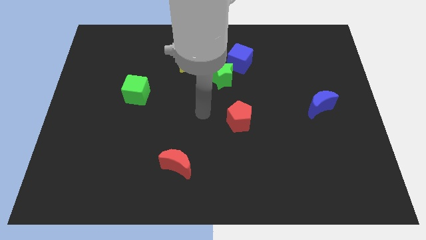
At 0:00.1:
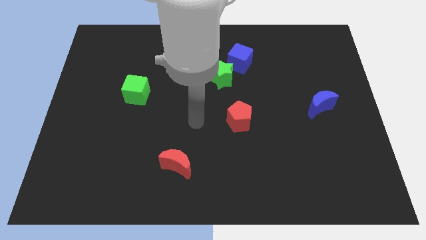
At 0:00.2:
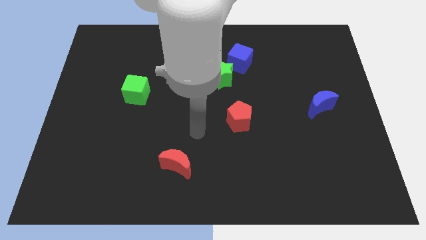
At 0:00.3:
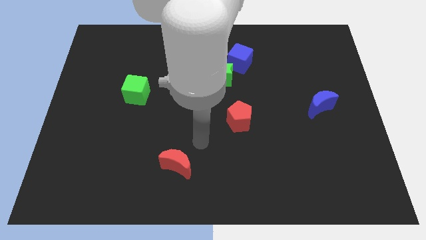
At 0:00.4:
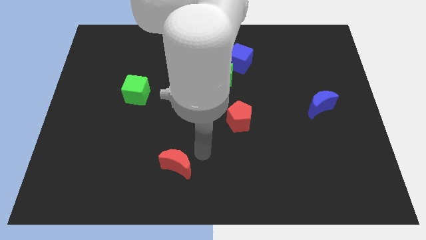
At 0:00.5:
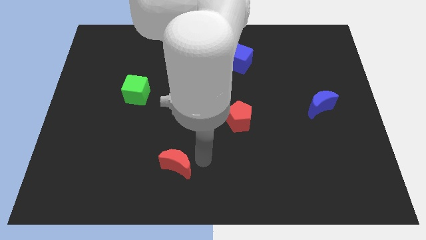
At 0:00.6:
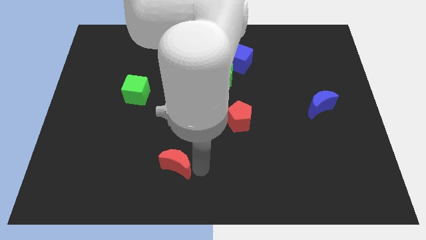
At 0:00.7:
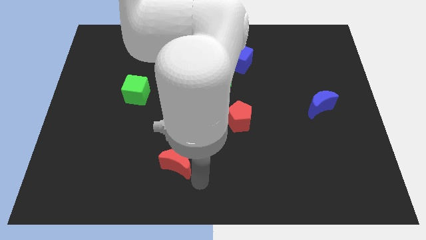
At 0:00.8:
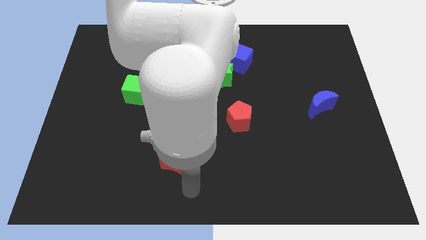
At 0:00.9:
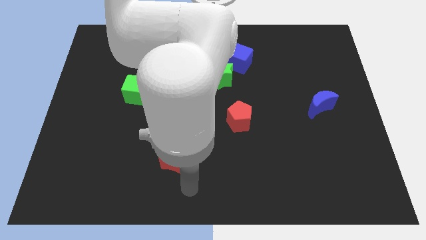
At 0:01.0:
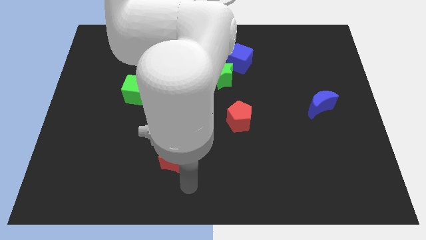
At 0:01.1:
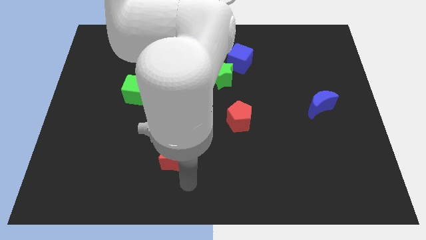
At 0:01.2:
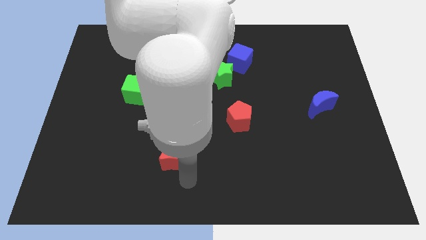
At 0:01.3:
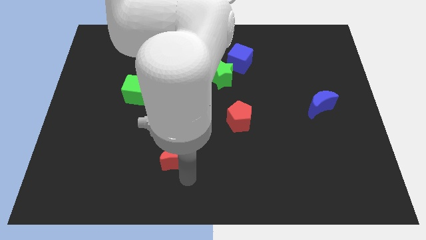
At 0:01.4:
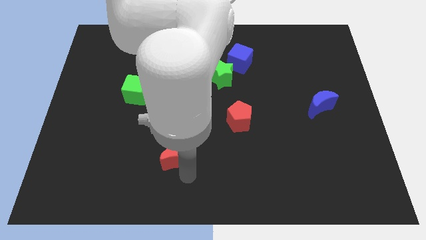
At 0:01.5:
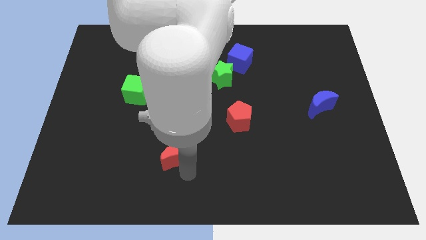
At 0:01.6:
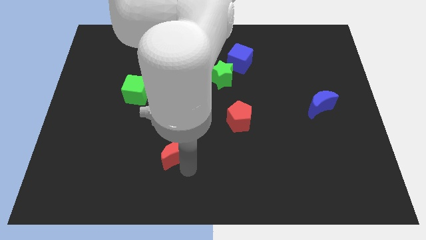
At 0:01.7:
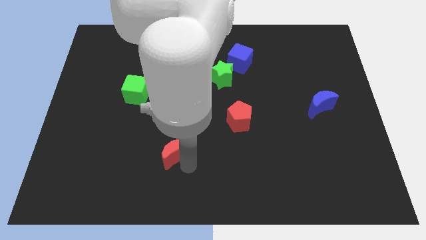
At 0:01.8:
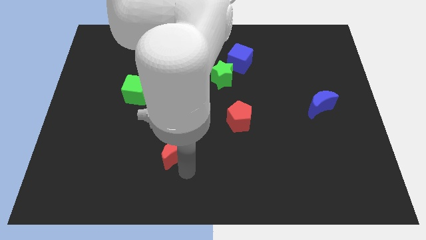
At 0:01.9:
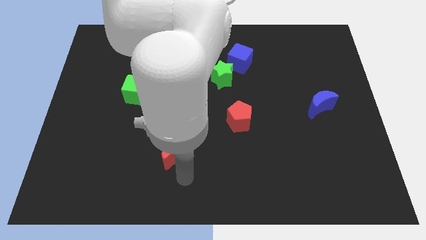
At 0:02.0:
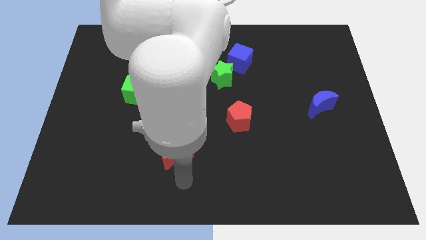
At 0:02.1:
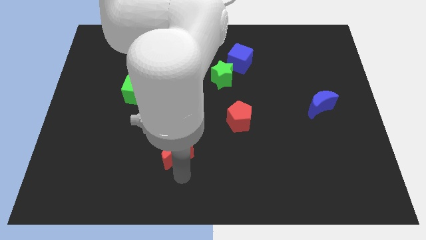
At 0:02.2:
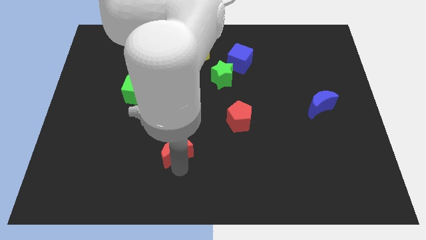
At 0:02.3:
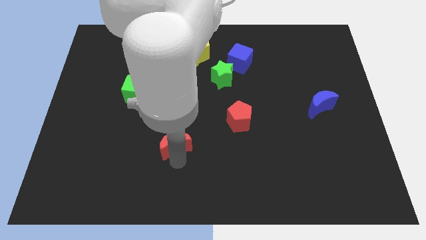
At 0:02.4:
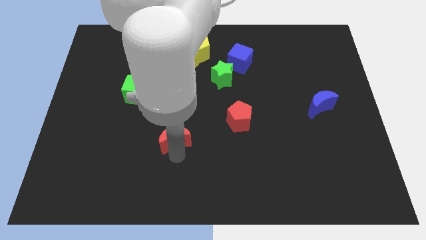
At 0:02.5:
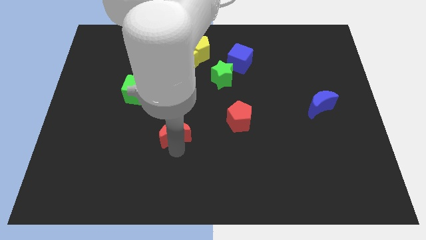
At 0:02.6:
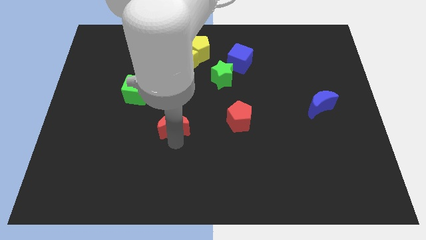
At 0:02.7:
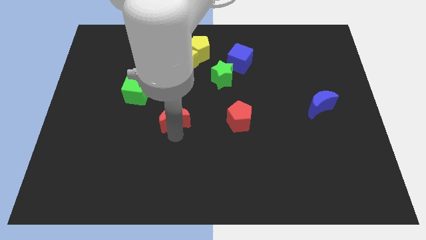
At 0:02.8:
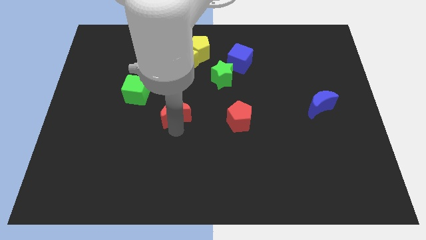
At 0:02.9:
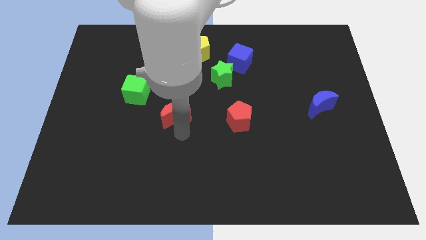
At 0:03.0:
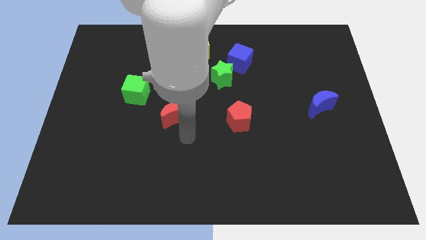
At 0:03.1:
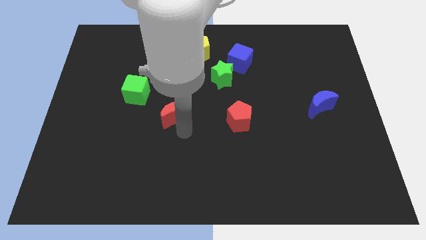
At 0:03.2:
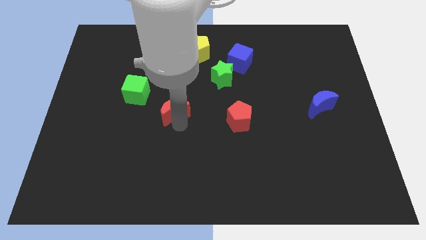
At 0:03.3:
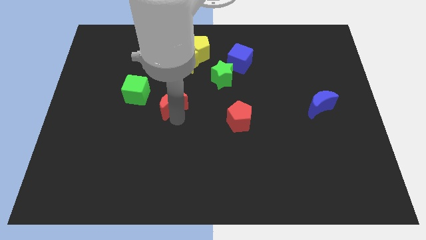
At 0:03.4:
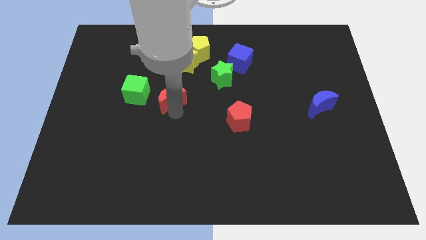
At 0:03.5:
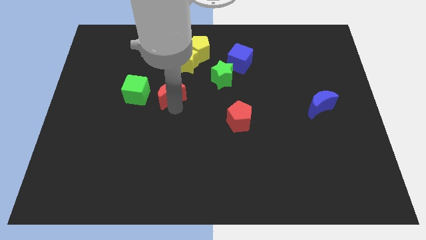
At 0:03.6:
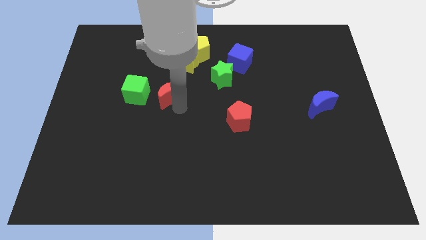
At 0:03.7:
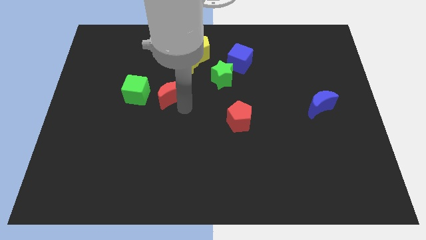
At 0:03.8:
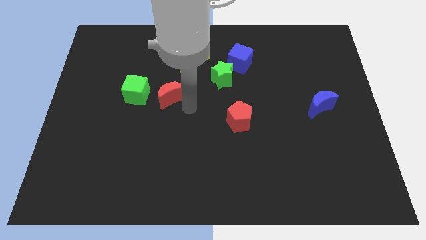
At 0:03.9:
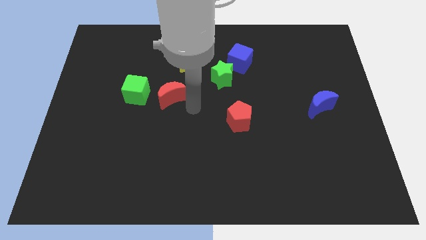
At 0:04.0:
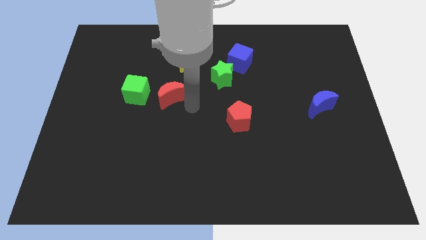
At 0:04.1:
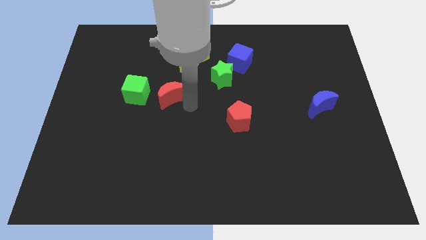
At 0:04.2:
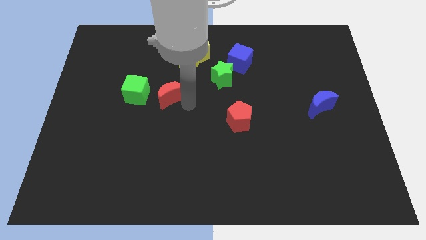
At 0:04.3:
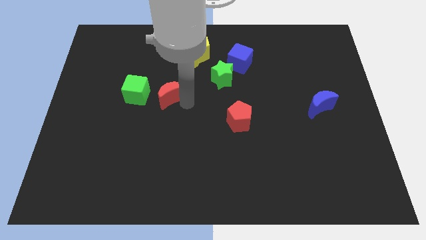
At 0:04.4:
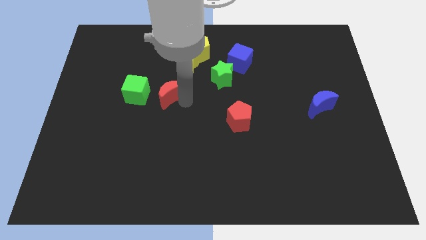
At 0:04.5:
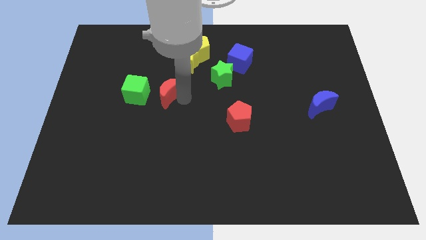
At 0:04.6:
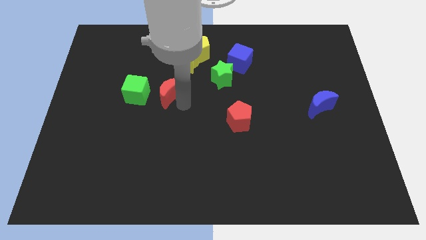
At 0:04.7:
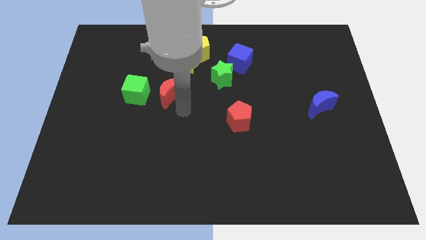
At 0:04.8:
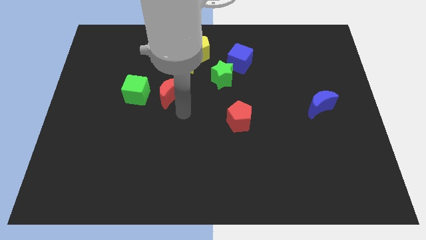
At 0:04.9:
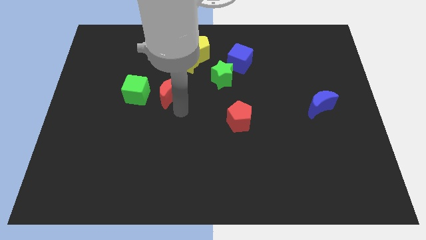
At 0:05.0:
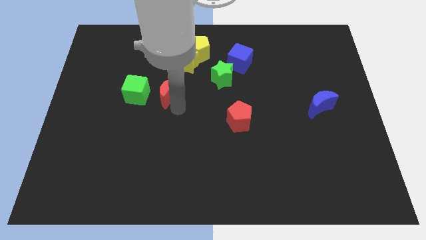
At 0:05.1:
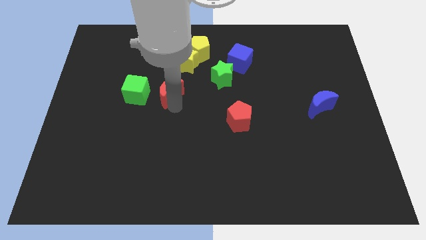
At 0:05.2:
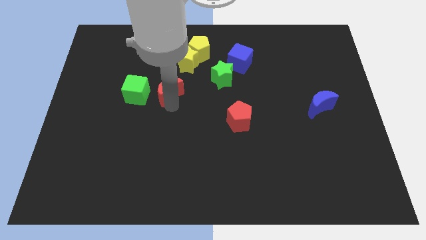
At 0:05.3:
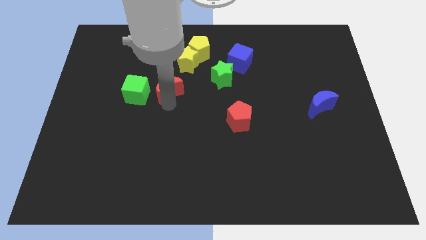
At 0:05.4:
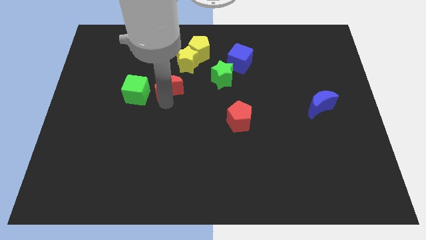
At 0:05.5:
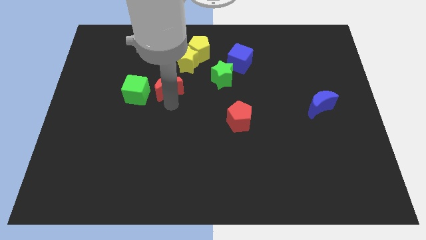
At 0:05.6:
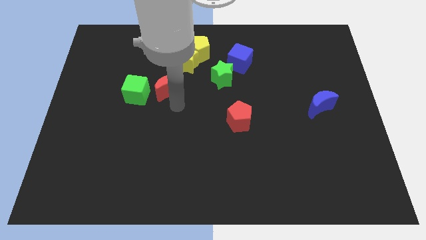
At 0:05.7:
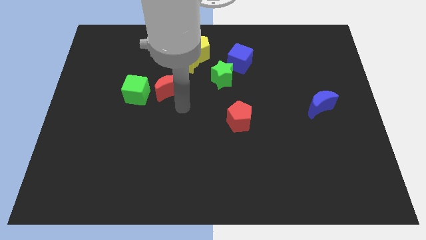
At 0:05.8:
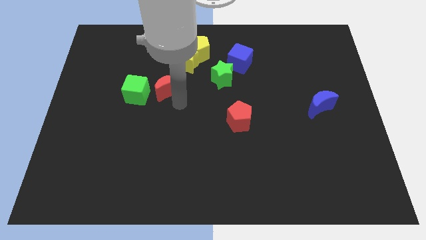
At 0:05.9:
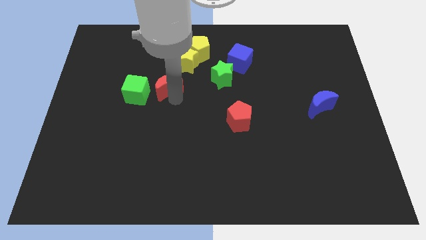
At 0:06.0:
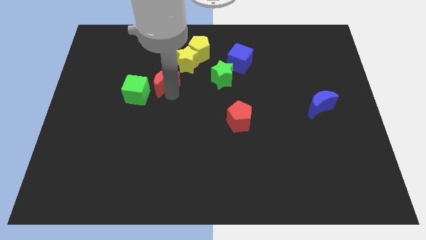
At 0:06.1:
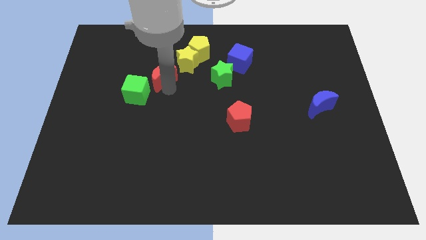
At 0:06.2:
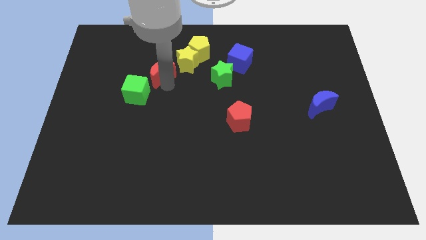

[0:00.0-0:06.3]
put the red moon just left of the yellow star
